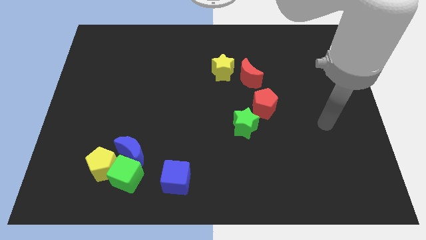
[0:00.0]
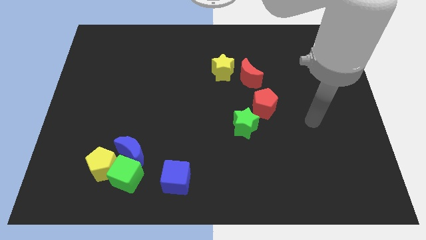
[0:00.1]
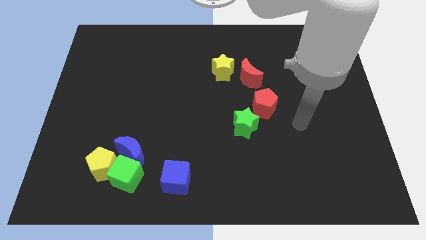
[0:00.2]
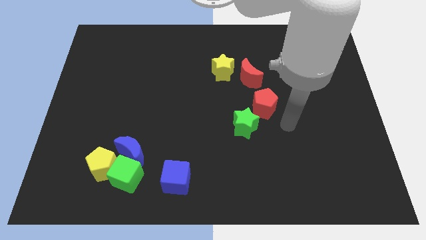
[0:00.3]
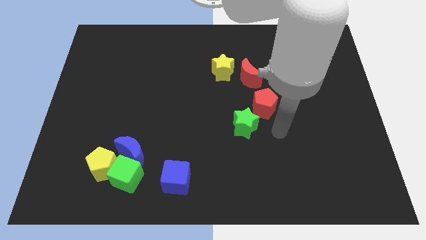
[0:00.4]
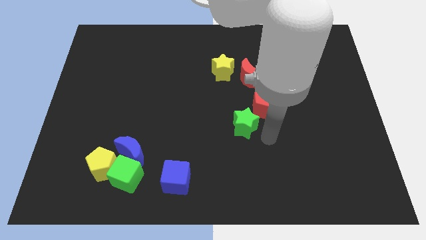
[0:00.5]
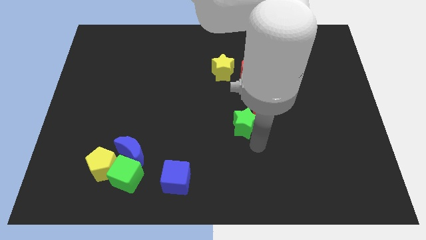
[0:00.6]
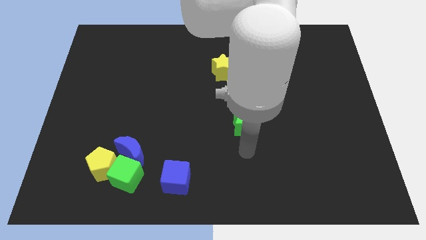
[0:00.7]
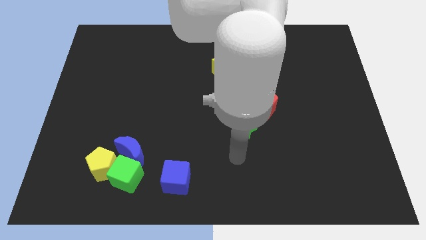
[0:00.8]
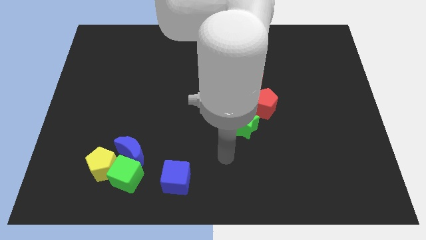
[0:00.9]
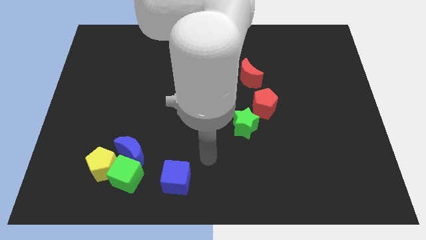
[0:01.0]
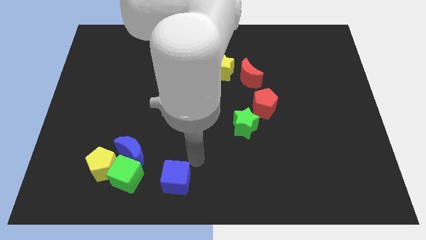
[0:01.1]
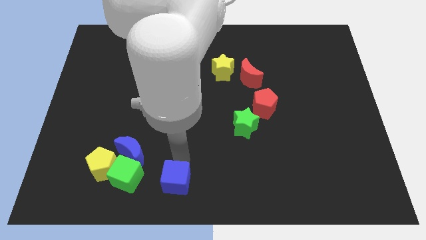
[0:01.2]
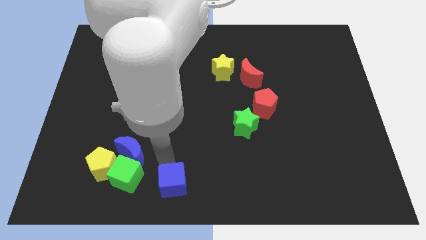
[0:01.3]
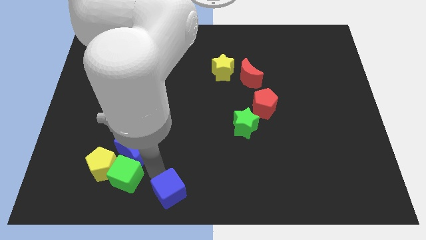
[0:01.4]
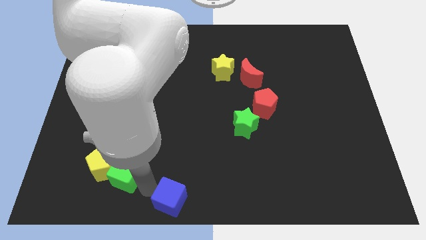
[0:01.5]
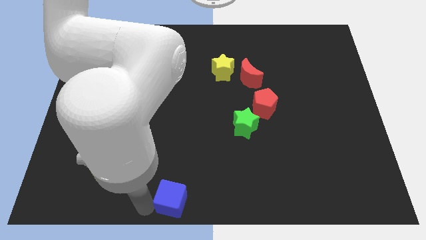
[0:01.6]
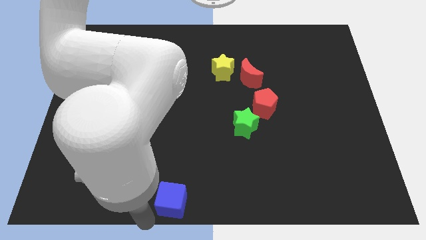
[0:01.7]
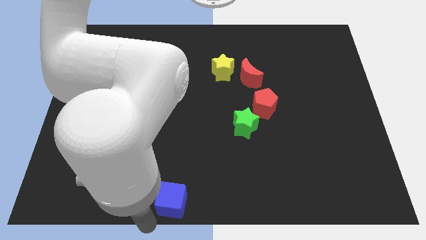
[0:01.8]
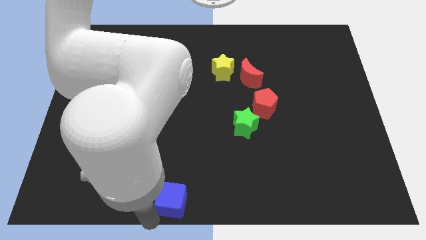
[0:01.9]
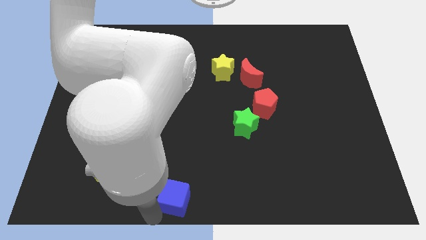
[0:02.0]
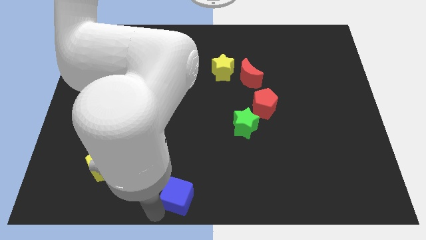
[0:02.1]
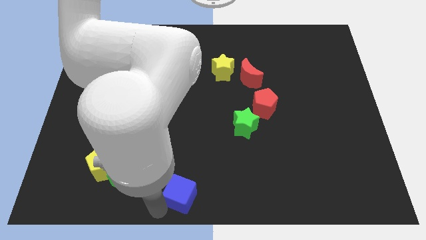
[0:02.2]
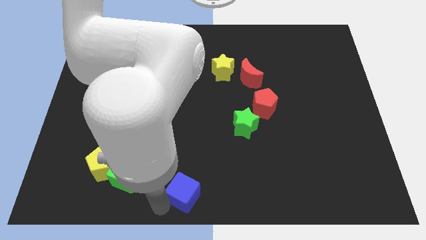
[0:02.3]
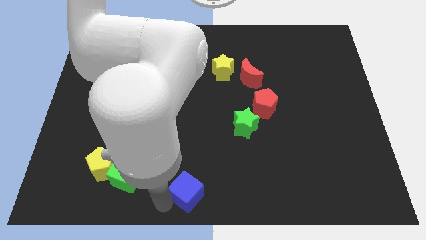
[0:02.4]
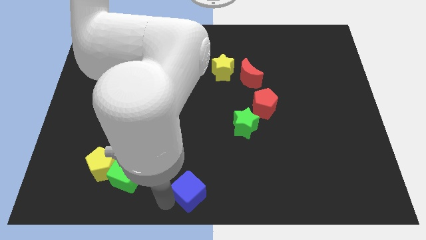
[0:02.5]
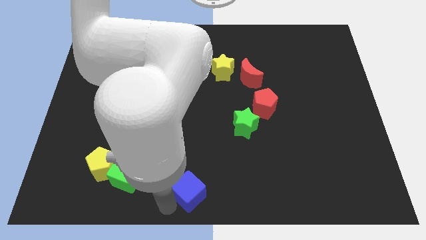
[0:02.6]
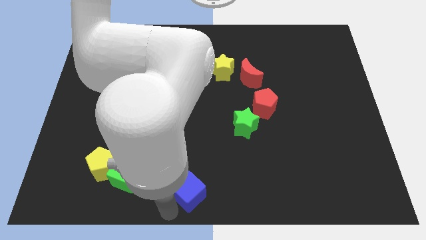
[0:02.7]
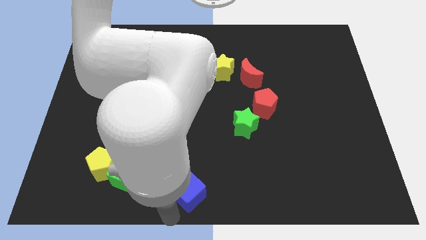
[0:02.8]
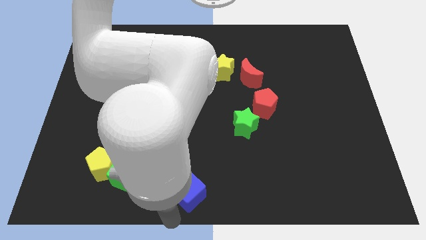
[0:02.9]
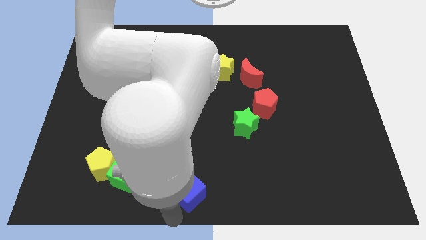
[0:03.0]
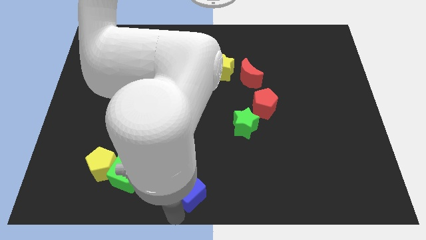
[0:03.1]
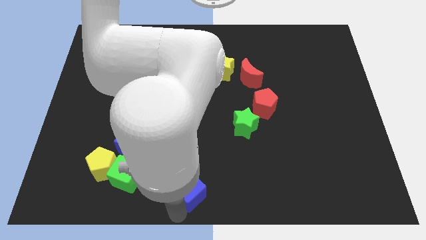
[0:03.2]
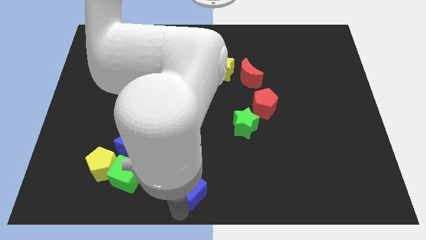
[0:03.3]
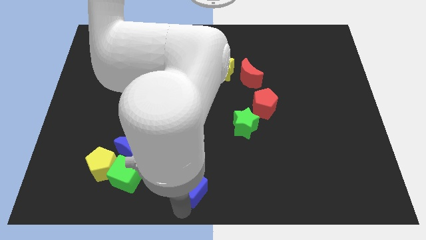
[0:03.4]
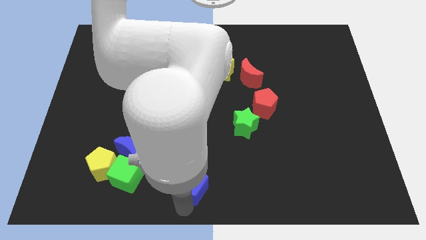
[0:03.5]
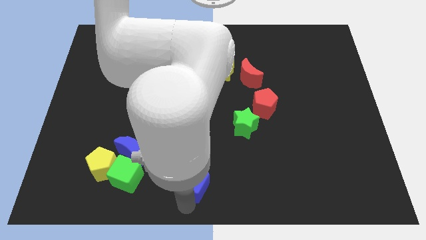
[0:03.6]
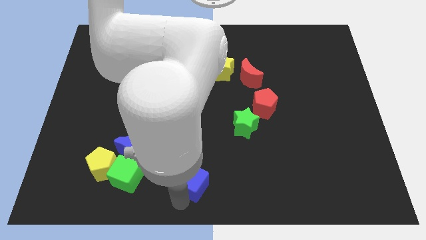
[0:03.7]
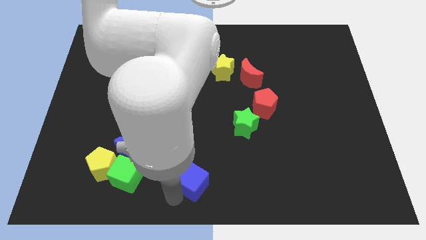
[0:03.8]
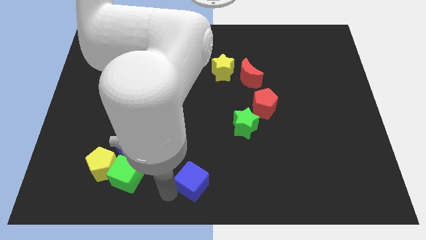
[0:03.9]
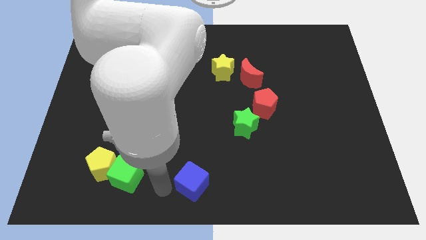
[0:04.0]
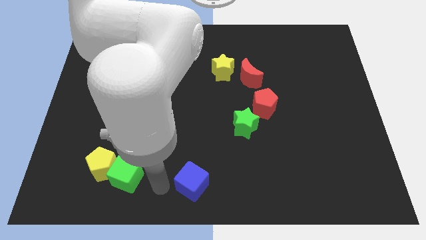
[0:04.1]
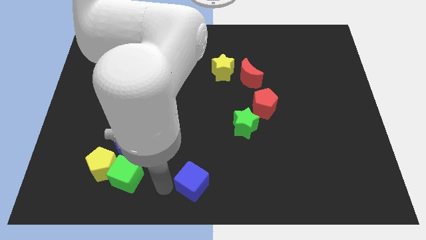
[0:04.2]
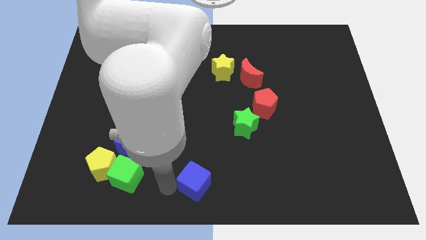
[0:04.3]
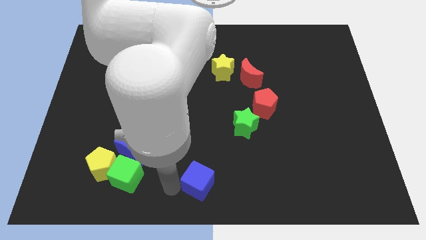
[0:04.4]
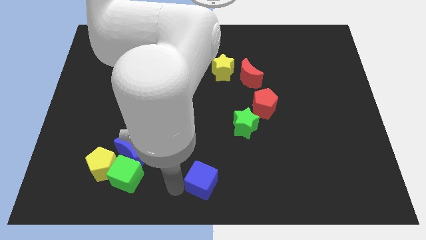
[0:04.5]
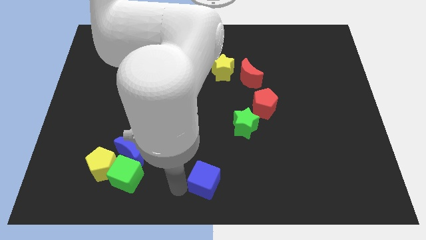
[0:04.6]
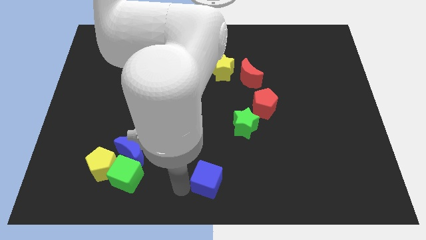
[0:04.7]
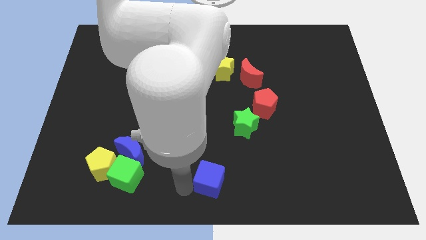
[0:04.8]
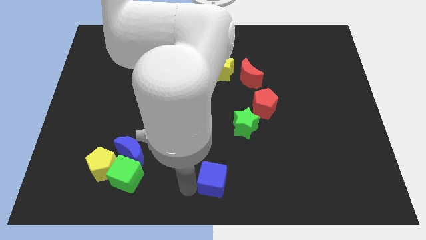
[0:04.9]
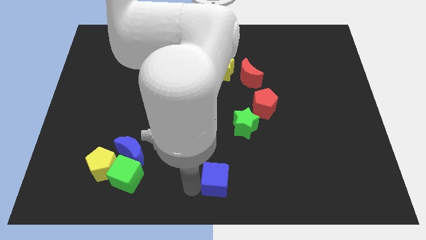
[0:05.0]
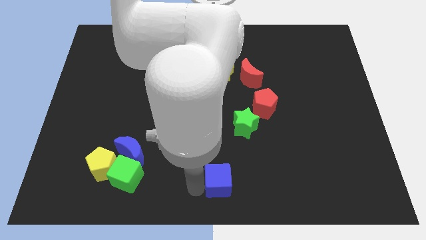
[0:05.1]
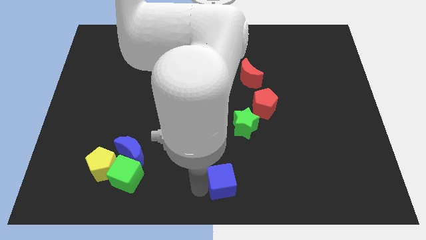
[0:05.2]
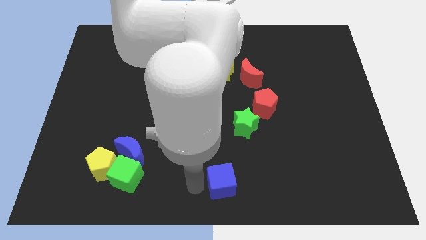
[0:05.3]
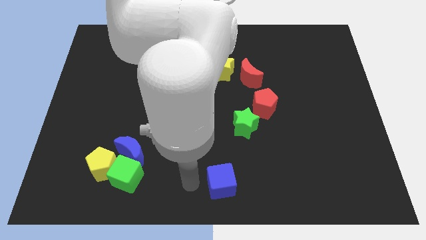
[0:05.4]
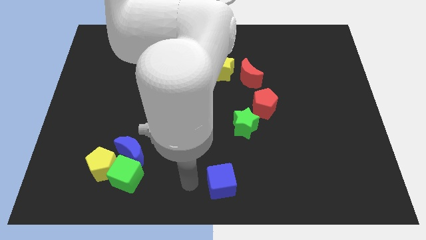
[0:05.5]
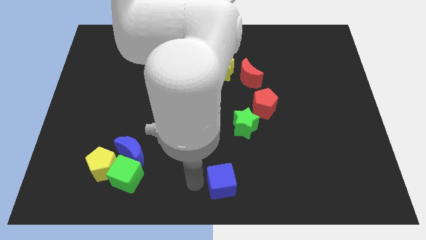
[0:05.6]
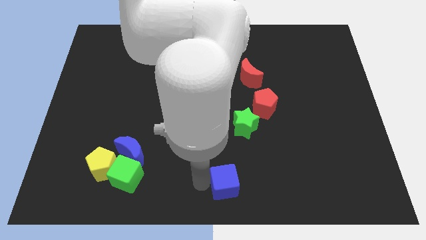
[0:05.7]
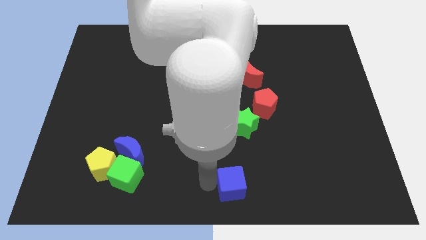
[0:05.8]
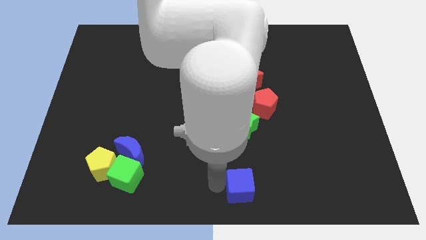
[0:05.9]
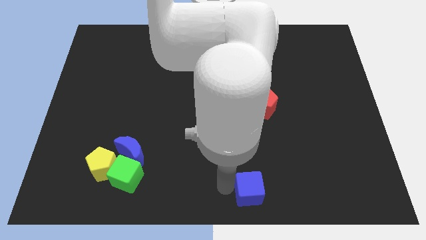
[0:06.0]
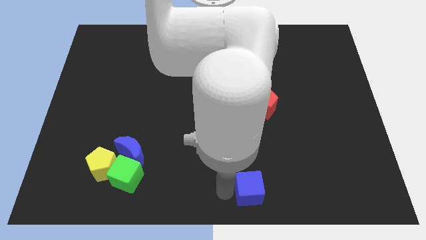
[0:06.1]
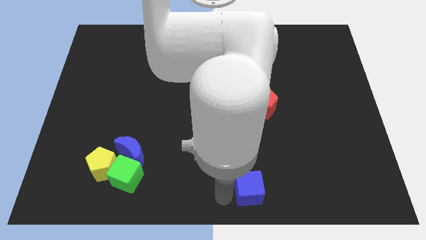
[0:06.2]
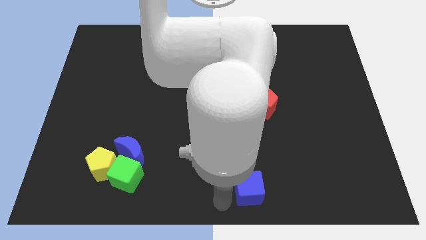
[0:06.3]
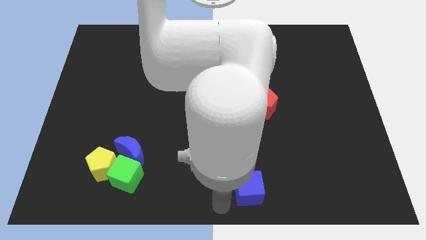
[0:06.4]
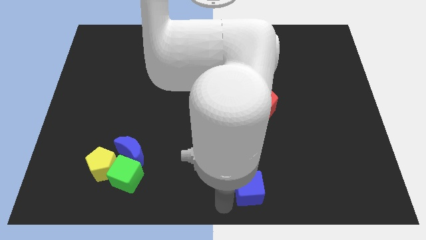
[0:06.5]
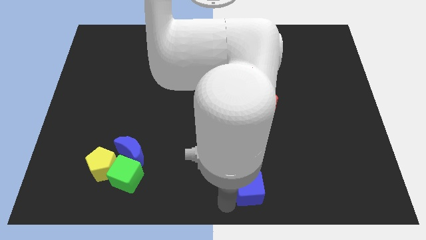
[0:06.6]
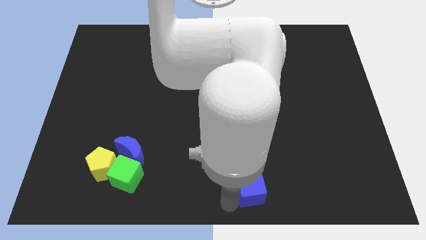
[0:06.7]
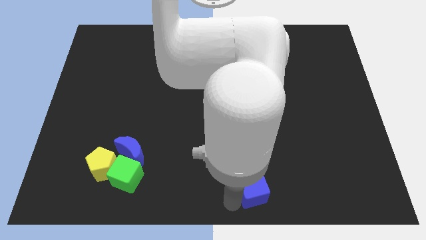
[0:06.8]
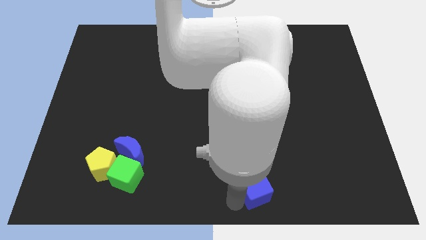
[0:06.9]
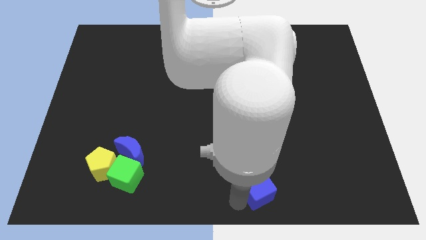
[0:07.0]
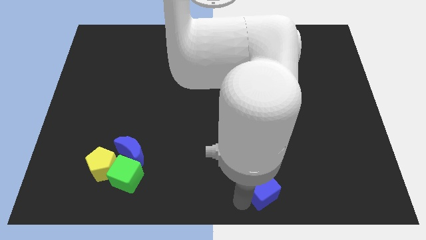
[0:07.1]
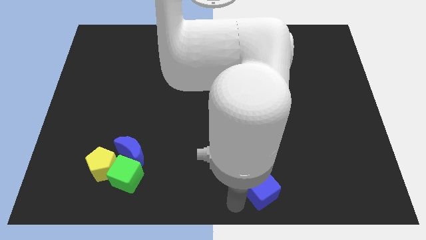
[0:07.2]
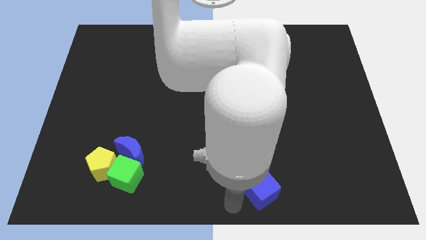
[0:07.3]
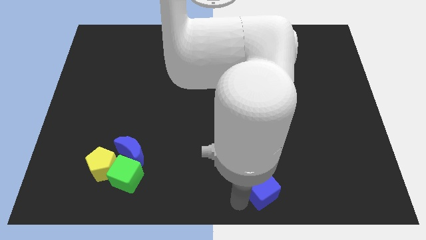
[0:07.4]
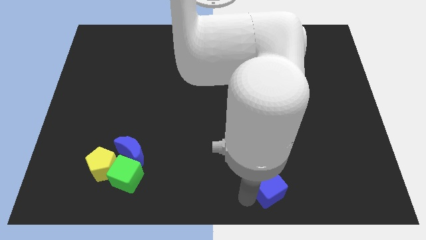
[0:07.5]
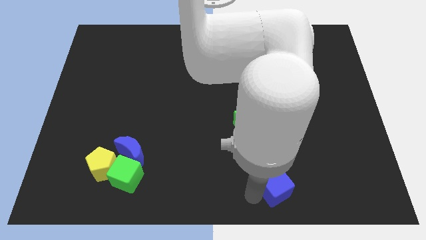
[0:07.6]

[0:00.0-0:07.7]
push the blue cube right

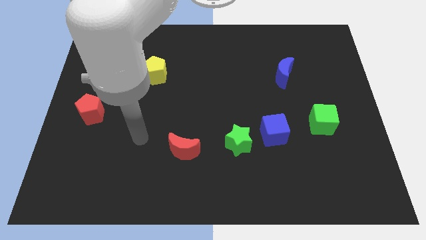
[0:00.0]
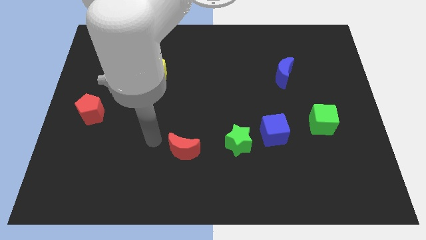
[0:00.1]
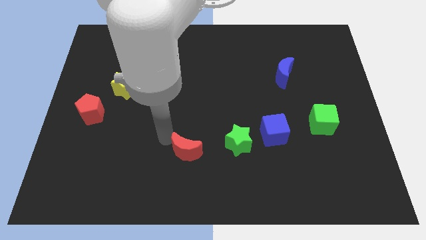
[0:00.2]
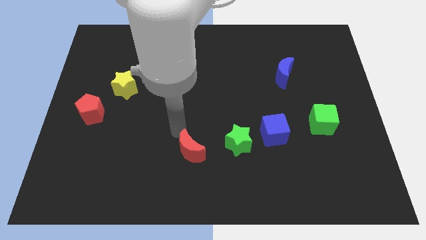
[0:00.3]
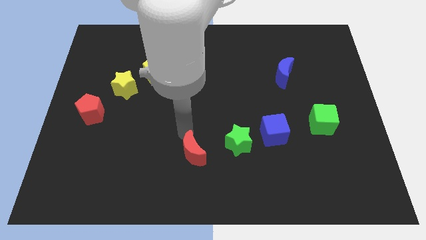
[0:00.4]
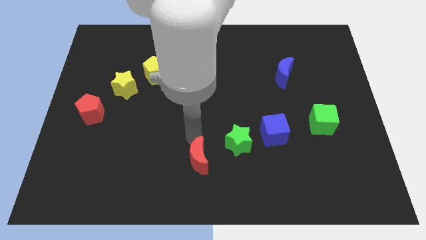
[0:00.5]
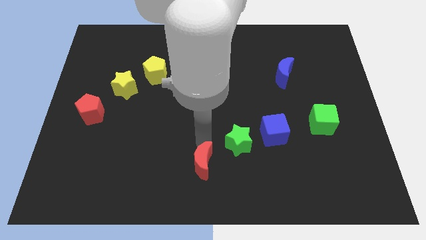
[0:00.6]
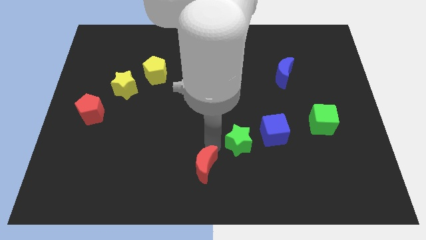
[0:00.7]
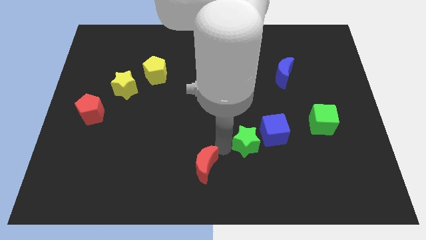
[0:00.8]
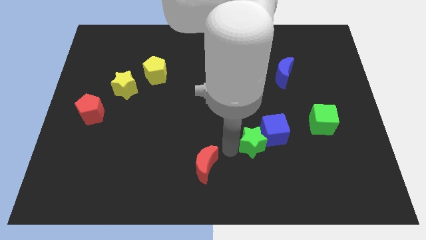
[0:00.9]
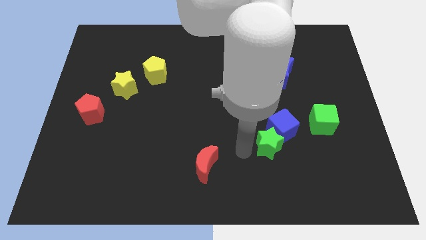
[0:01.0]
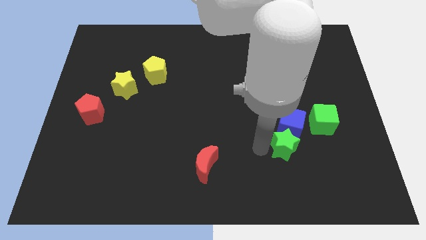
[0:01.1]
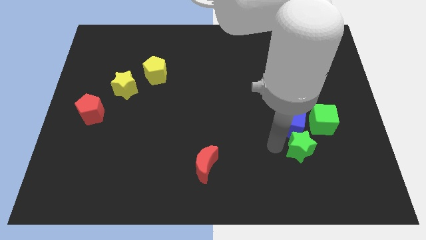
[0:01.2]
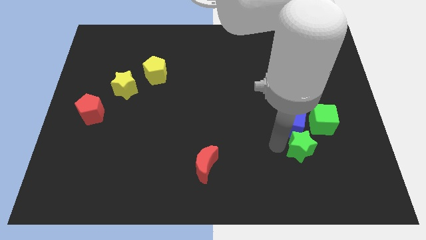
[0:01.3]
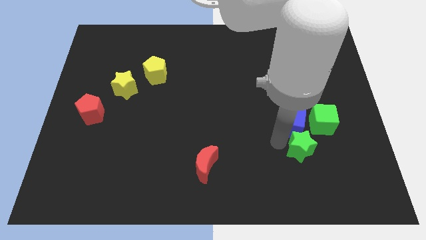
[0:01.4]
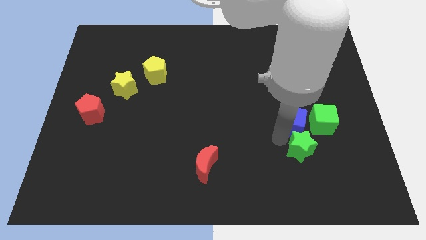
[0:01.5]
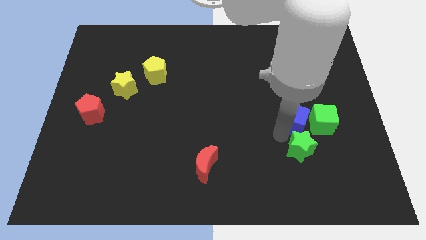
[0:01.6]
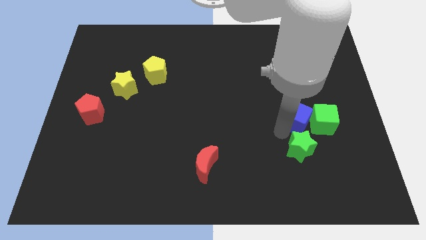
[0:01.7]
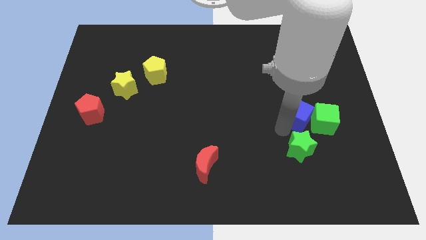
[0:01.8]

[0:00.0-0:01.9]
move the blue cube a little bit upwards and to the right
